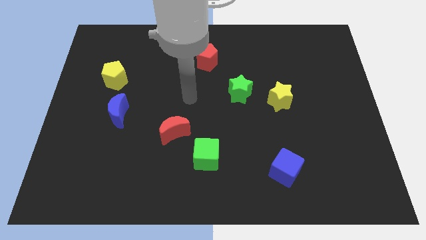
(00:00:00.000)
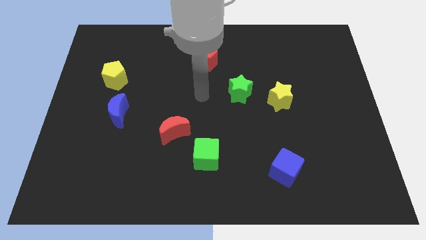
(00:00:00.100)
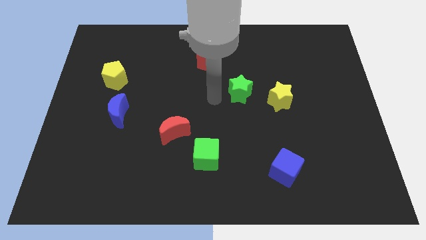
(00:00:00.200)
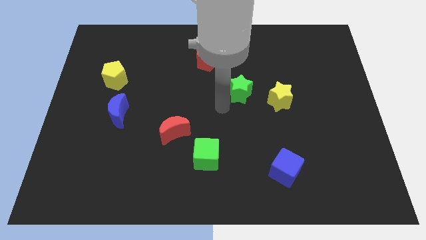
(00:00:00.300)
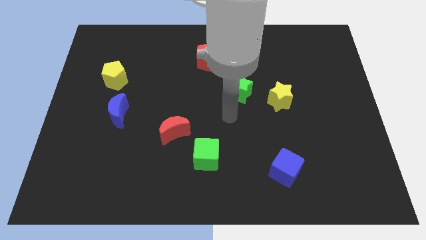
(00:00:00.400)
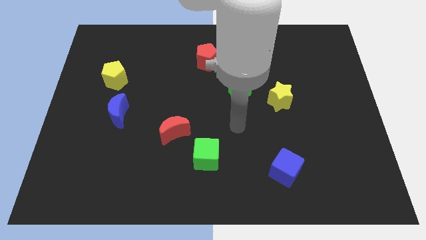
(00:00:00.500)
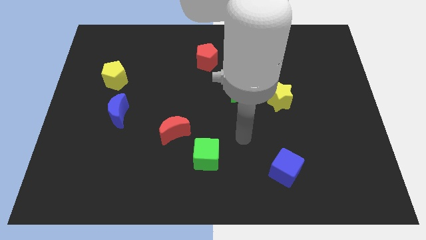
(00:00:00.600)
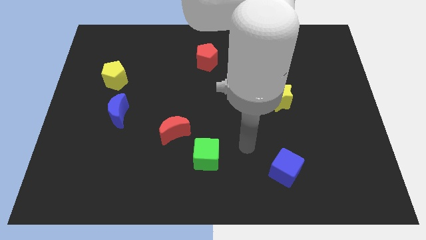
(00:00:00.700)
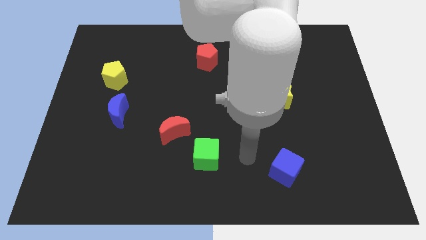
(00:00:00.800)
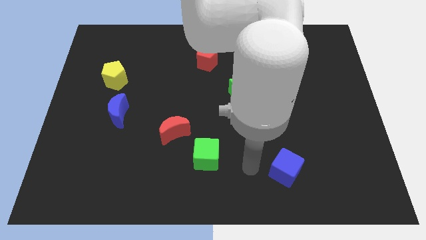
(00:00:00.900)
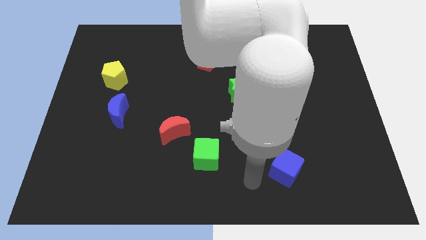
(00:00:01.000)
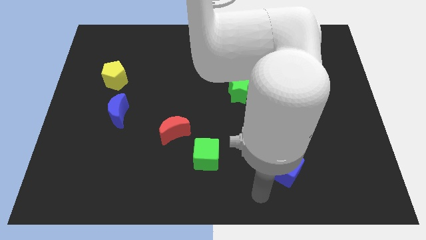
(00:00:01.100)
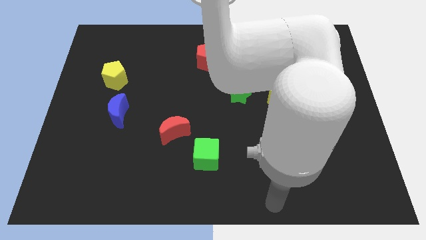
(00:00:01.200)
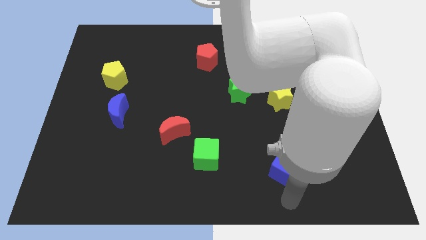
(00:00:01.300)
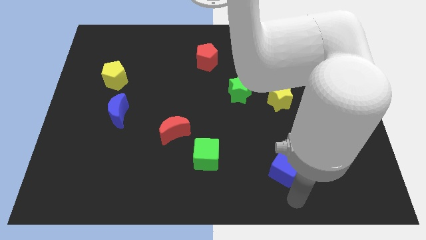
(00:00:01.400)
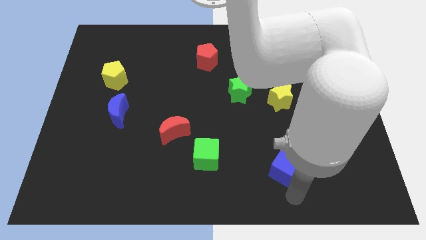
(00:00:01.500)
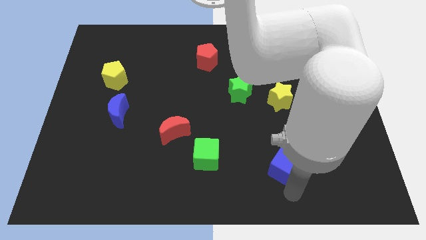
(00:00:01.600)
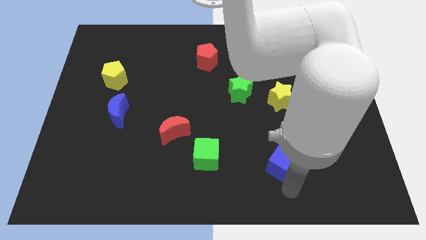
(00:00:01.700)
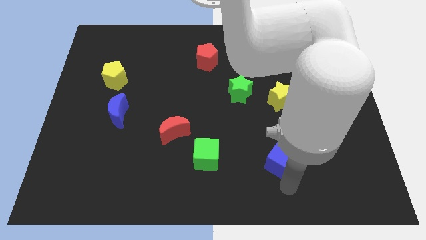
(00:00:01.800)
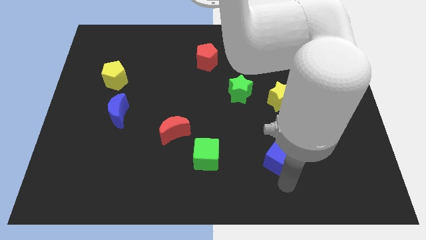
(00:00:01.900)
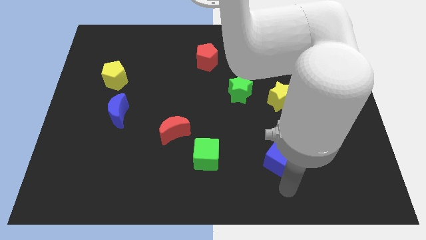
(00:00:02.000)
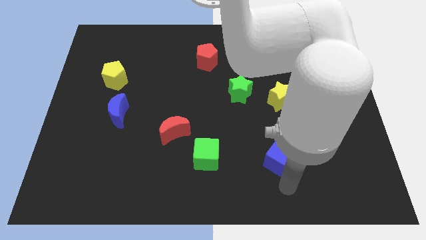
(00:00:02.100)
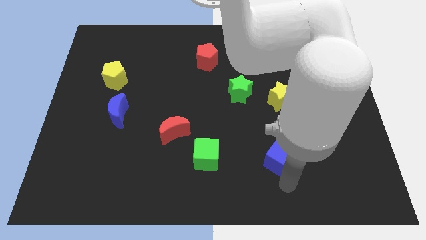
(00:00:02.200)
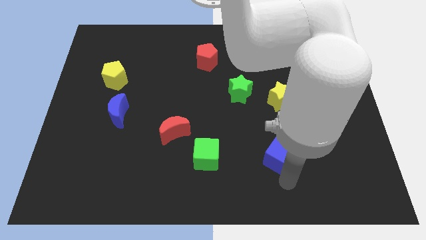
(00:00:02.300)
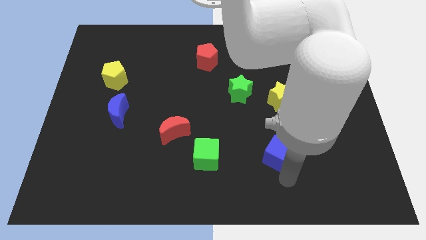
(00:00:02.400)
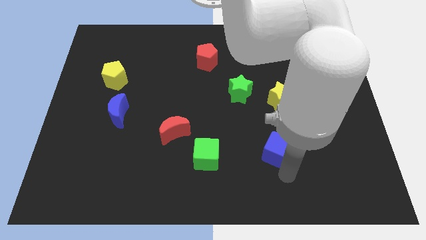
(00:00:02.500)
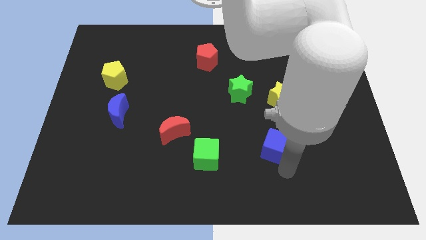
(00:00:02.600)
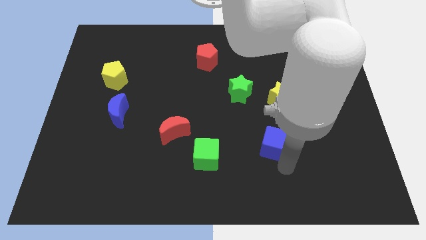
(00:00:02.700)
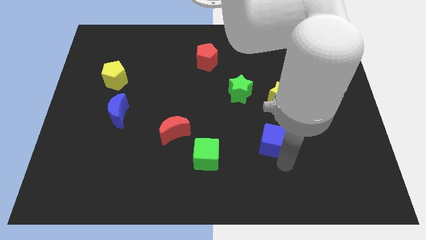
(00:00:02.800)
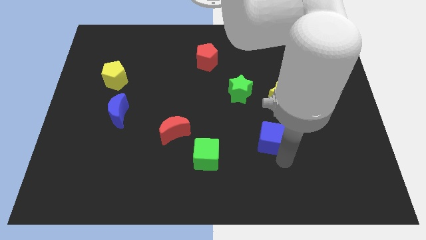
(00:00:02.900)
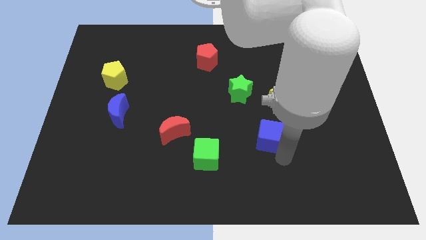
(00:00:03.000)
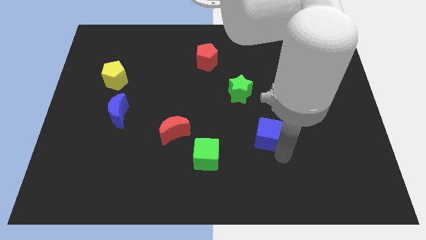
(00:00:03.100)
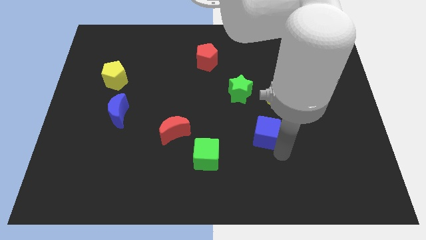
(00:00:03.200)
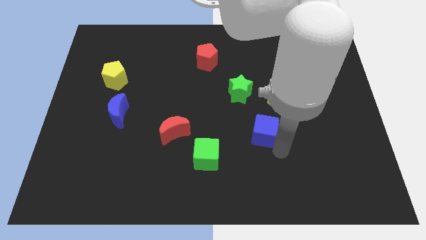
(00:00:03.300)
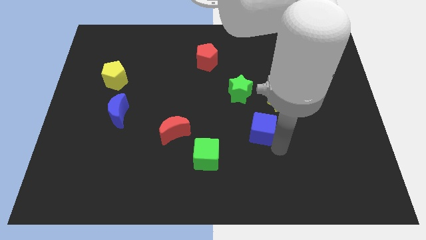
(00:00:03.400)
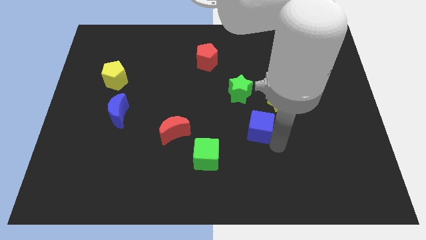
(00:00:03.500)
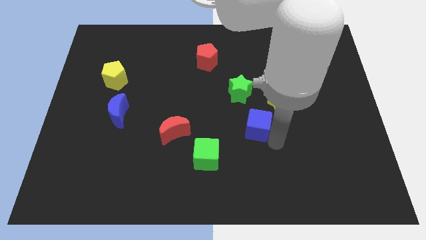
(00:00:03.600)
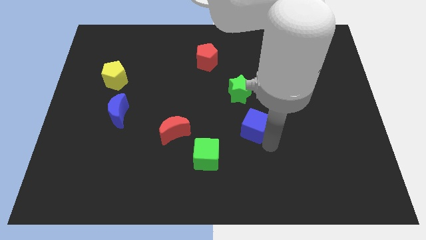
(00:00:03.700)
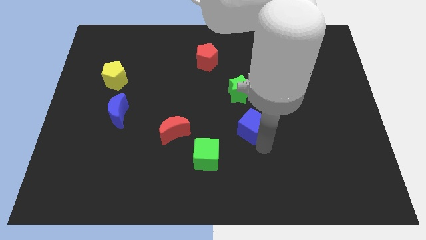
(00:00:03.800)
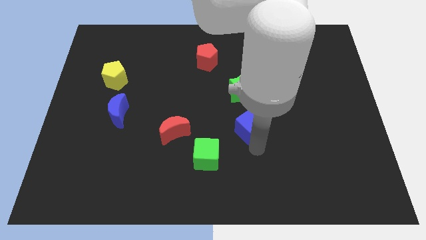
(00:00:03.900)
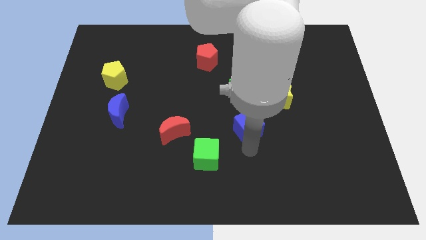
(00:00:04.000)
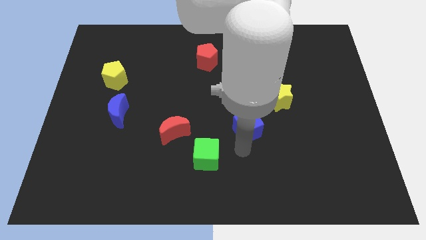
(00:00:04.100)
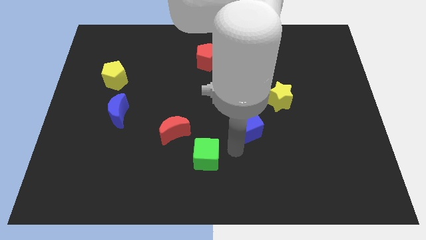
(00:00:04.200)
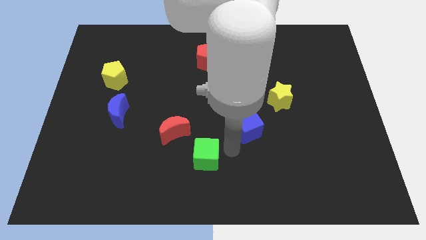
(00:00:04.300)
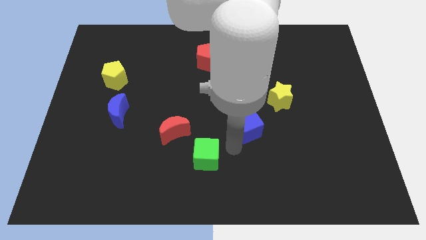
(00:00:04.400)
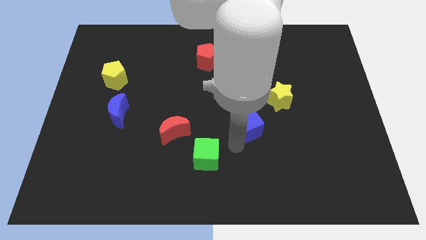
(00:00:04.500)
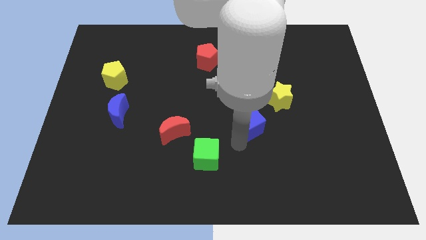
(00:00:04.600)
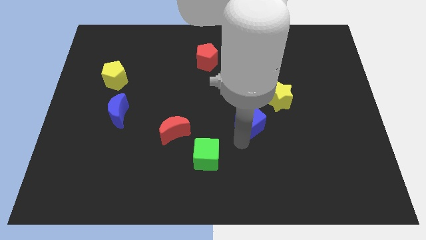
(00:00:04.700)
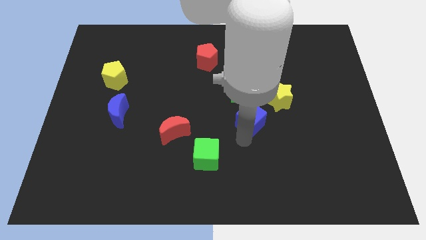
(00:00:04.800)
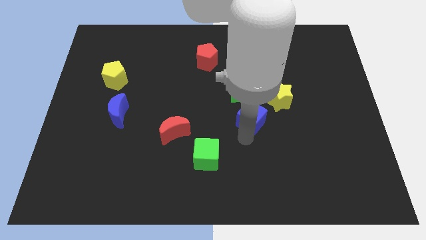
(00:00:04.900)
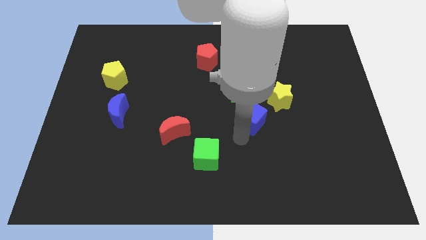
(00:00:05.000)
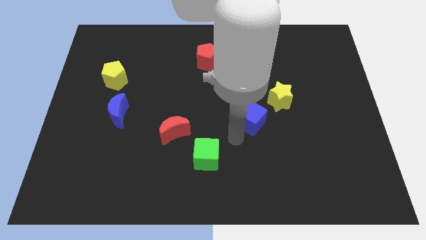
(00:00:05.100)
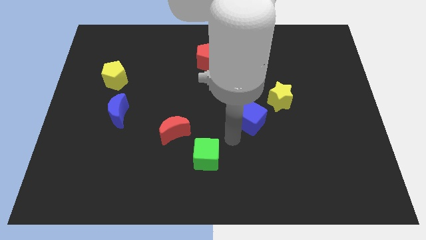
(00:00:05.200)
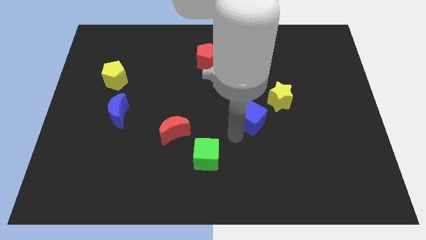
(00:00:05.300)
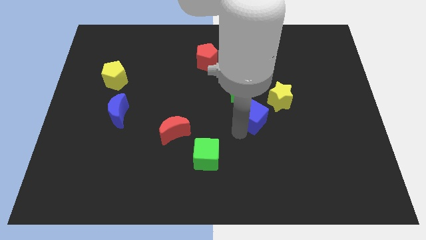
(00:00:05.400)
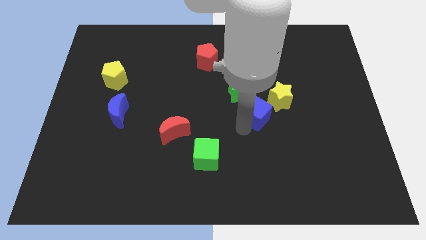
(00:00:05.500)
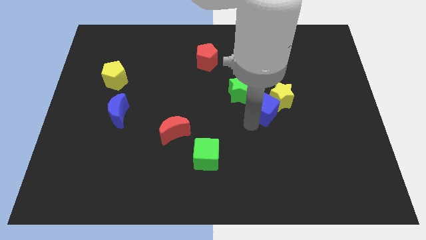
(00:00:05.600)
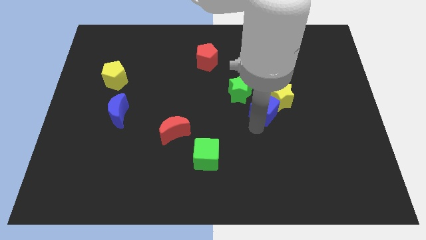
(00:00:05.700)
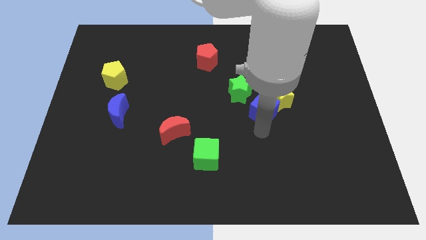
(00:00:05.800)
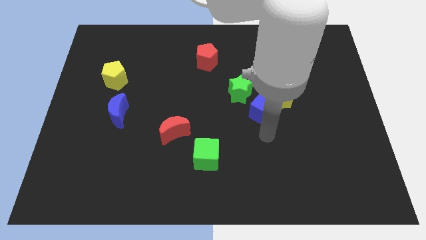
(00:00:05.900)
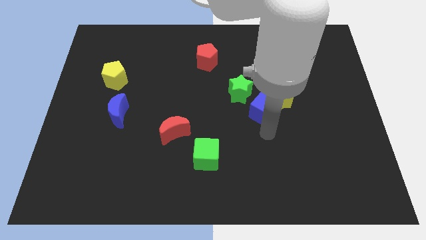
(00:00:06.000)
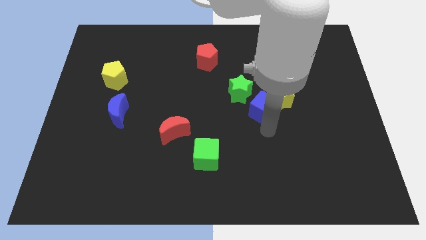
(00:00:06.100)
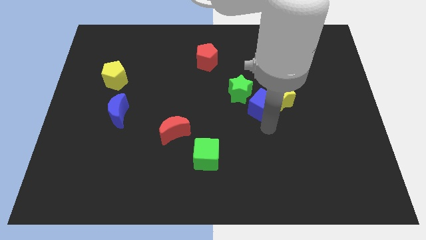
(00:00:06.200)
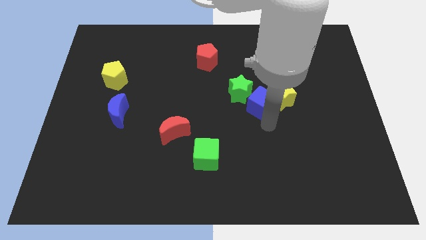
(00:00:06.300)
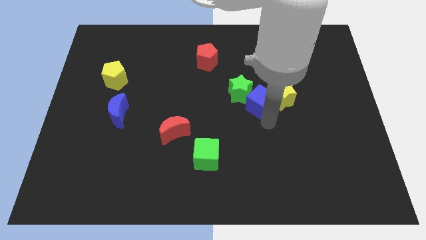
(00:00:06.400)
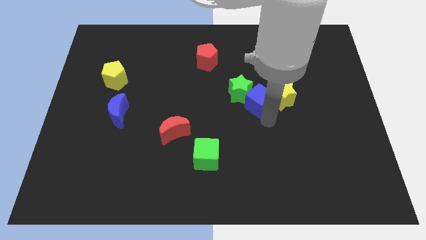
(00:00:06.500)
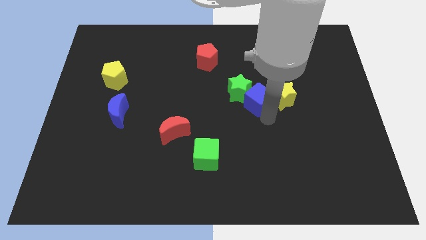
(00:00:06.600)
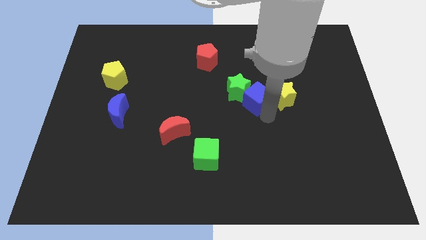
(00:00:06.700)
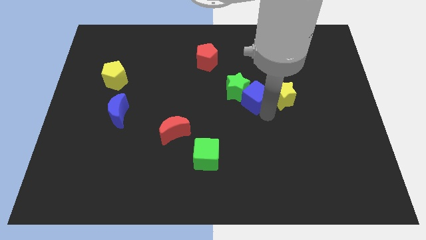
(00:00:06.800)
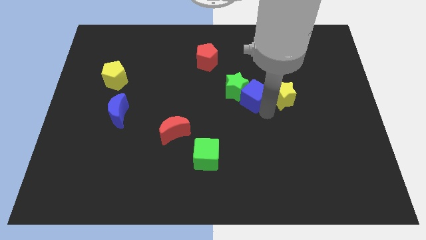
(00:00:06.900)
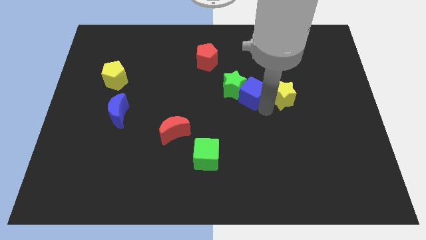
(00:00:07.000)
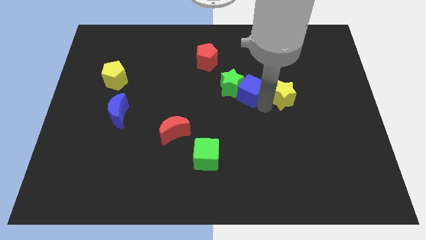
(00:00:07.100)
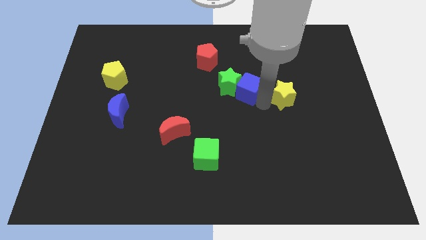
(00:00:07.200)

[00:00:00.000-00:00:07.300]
push the blue cube up

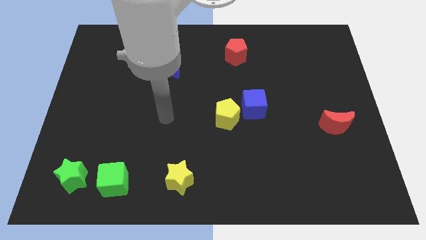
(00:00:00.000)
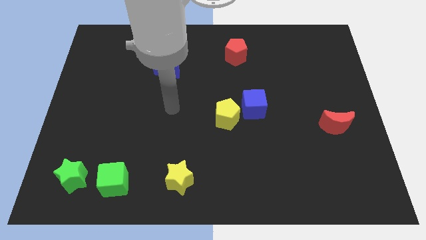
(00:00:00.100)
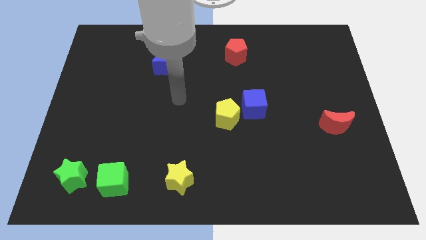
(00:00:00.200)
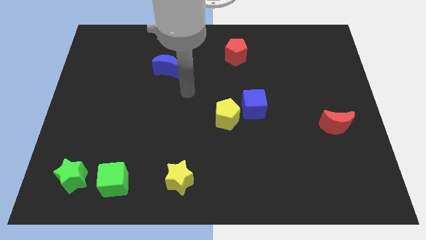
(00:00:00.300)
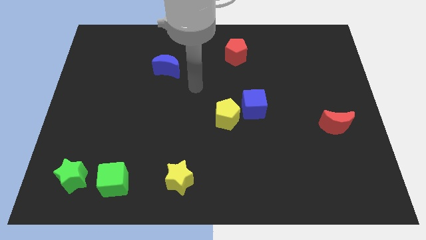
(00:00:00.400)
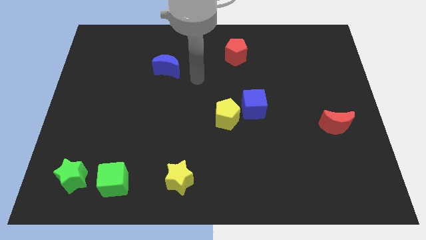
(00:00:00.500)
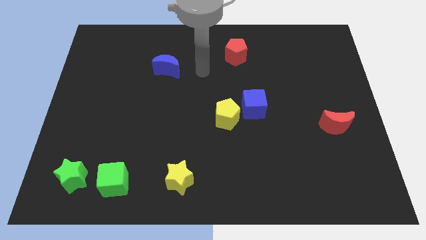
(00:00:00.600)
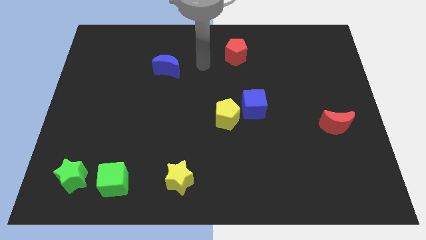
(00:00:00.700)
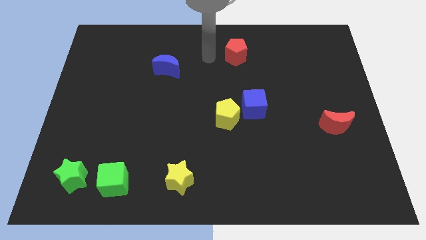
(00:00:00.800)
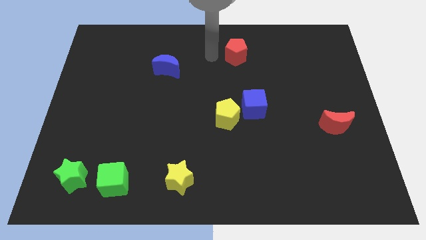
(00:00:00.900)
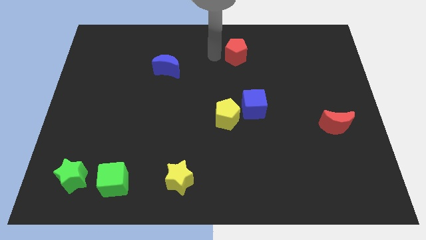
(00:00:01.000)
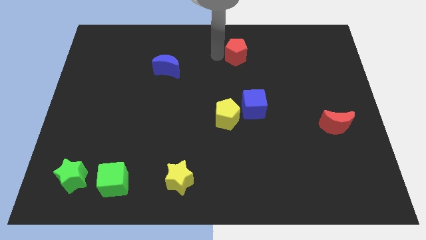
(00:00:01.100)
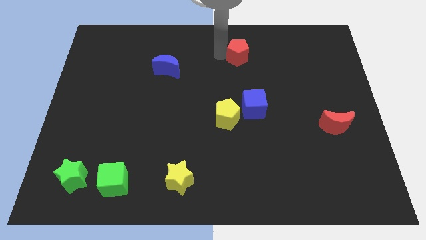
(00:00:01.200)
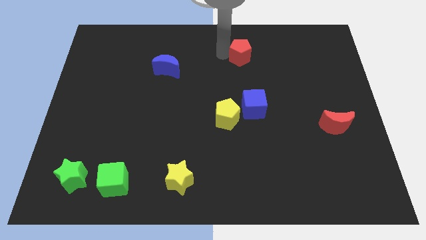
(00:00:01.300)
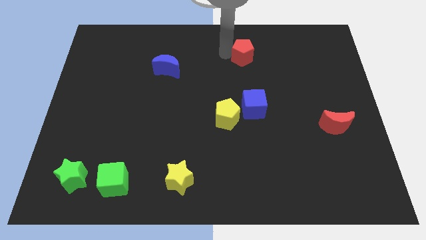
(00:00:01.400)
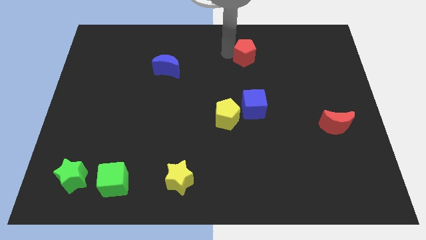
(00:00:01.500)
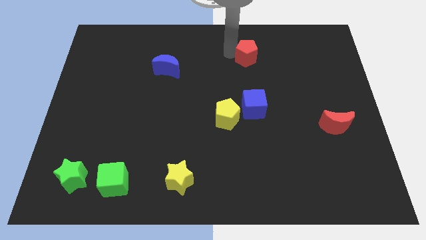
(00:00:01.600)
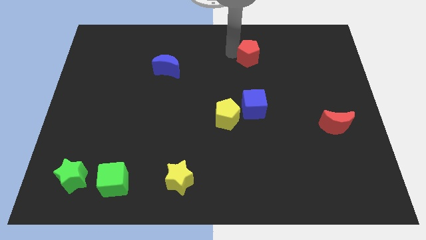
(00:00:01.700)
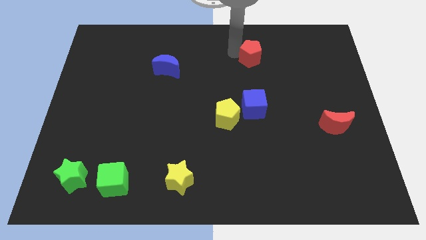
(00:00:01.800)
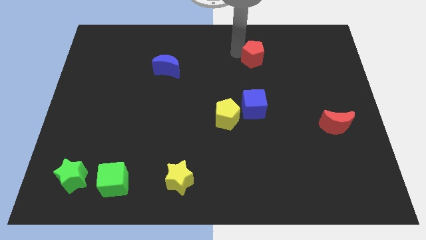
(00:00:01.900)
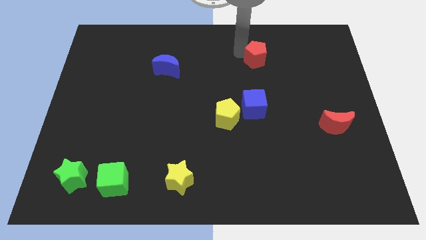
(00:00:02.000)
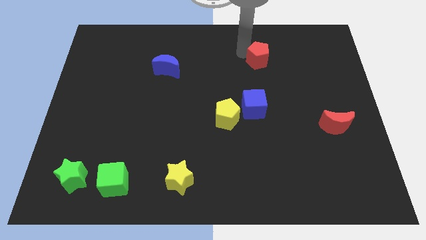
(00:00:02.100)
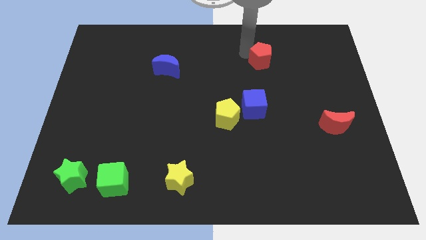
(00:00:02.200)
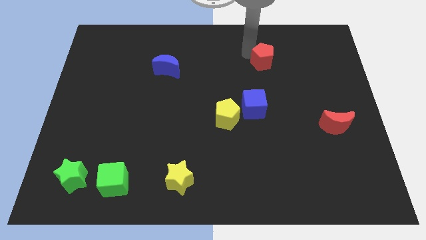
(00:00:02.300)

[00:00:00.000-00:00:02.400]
push the red pentagon a little to the right
